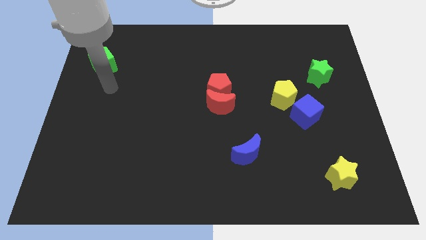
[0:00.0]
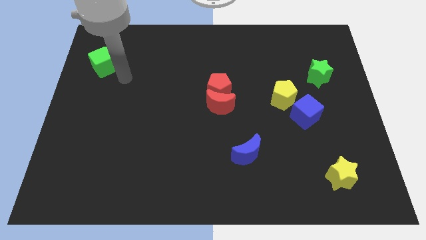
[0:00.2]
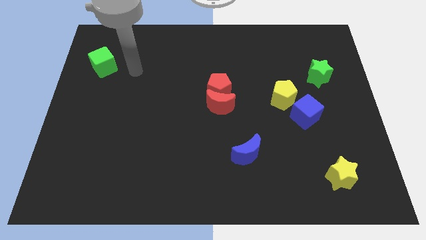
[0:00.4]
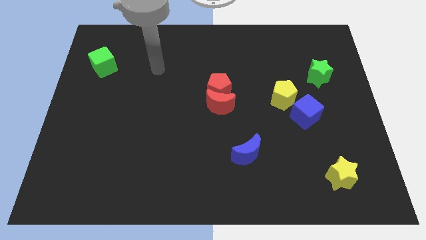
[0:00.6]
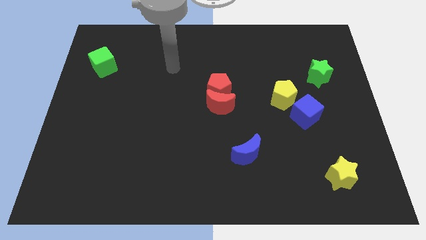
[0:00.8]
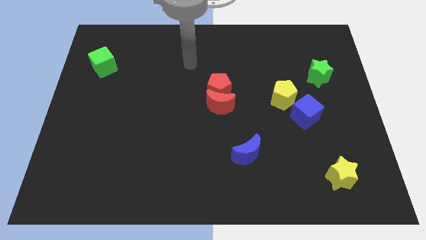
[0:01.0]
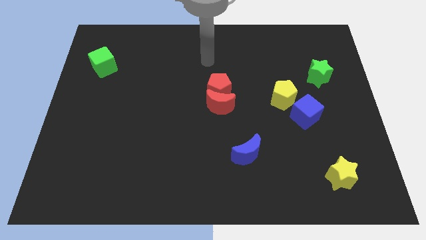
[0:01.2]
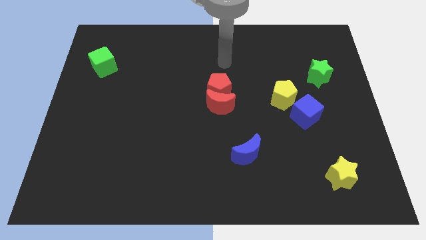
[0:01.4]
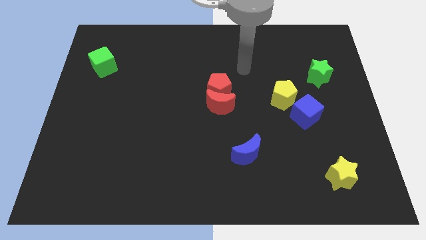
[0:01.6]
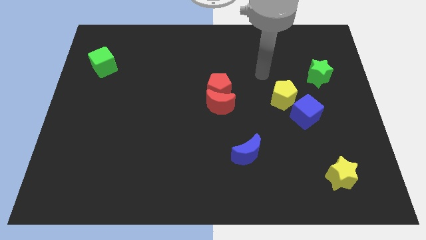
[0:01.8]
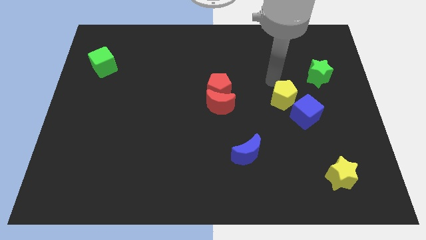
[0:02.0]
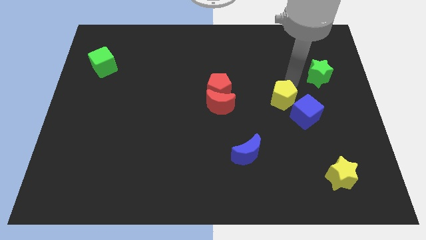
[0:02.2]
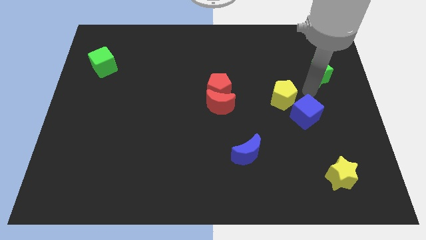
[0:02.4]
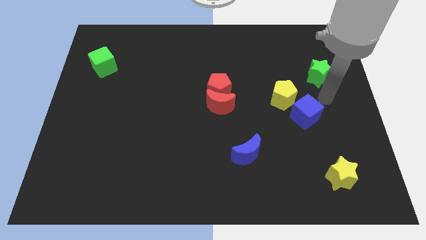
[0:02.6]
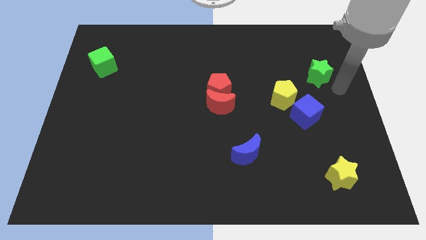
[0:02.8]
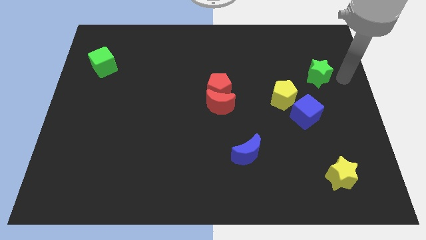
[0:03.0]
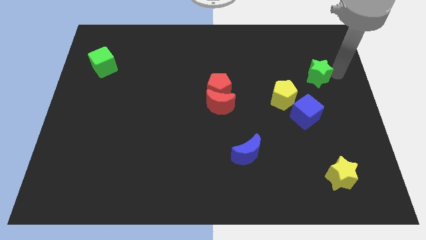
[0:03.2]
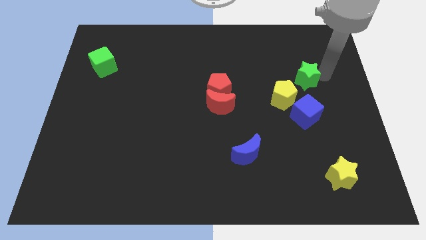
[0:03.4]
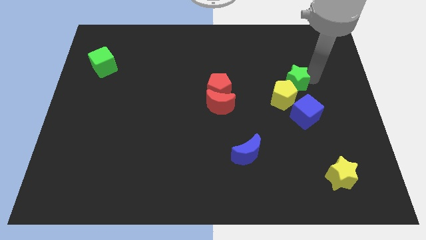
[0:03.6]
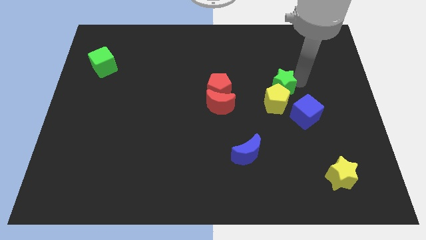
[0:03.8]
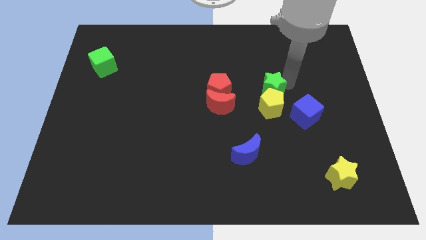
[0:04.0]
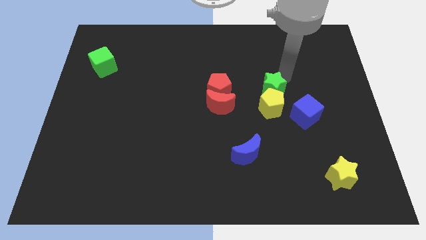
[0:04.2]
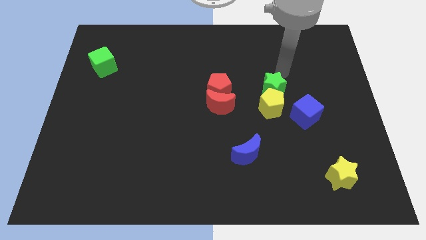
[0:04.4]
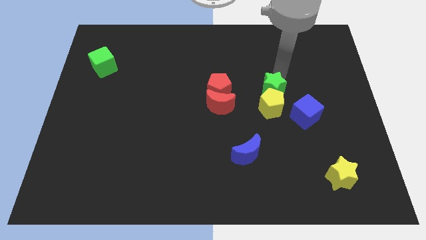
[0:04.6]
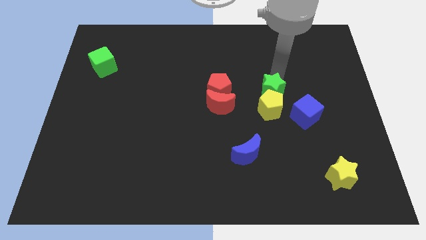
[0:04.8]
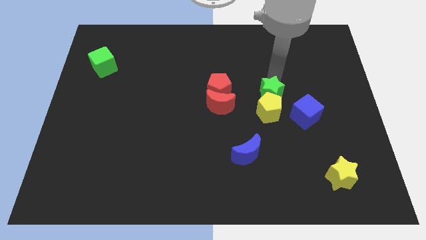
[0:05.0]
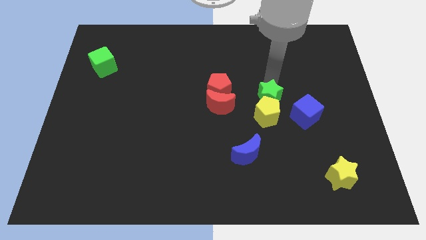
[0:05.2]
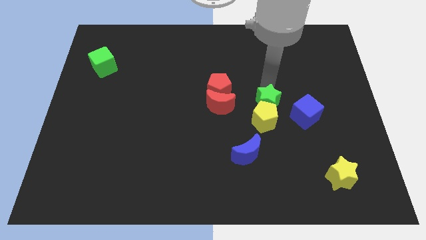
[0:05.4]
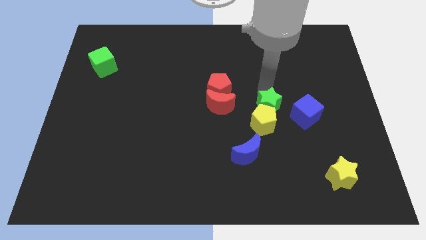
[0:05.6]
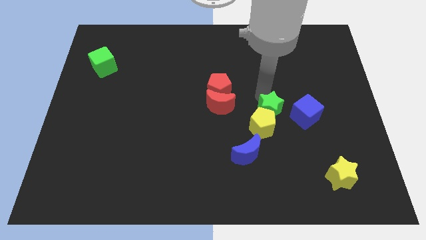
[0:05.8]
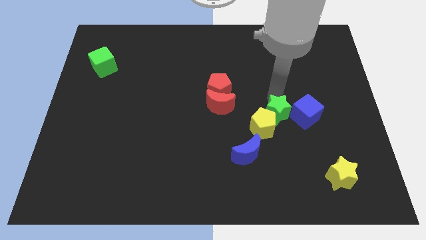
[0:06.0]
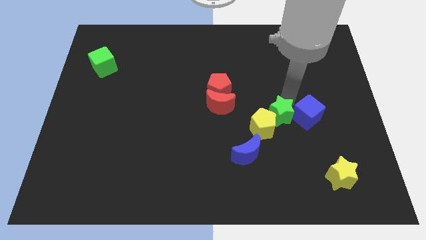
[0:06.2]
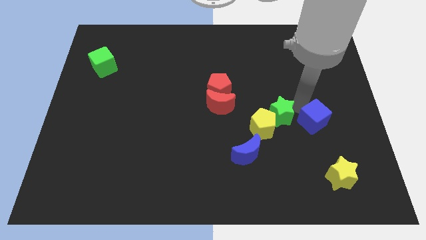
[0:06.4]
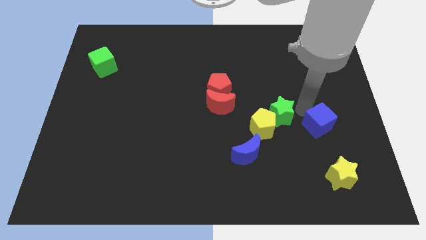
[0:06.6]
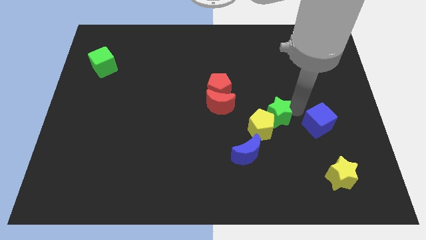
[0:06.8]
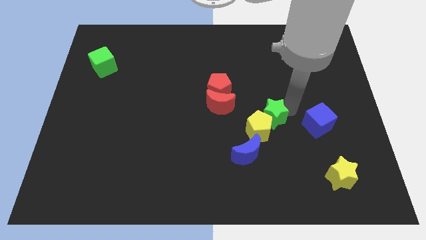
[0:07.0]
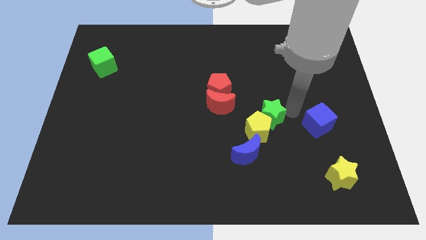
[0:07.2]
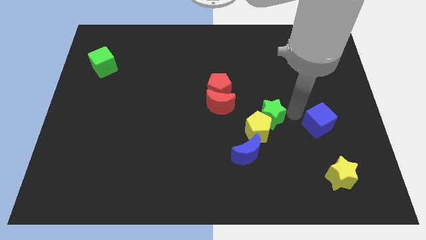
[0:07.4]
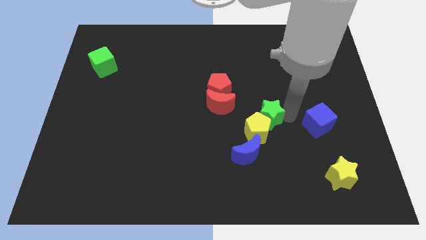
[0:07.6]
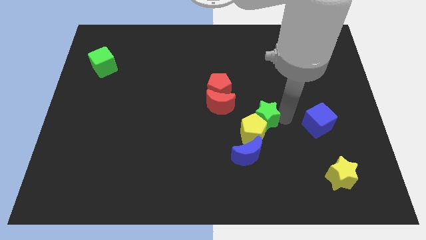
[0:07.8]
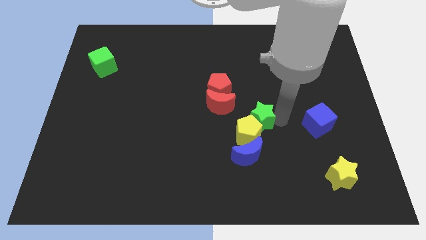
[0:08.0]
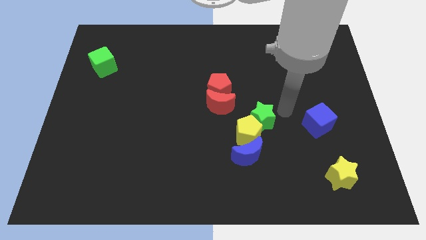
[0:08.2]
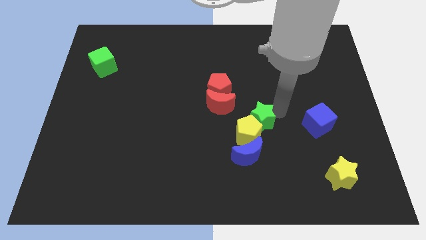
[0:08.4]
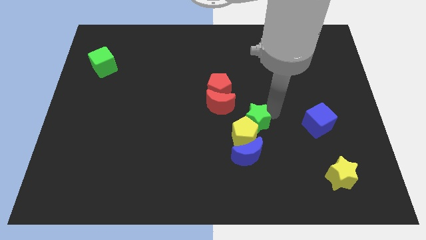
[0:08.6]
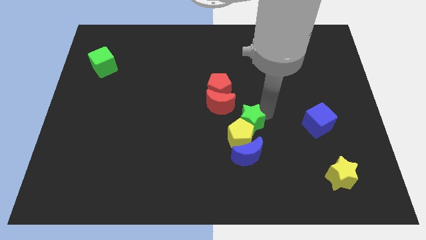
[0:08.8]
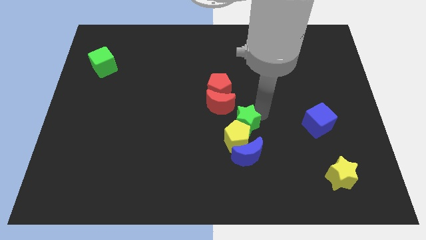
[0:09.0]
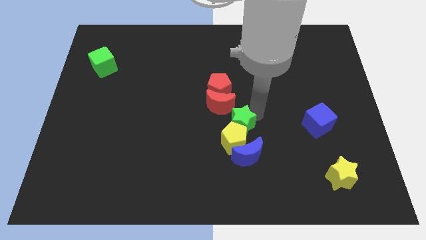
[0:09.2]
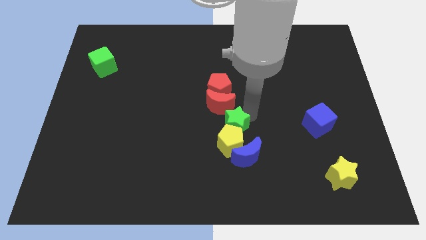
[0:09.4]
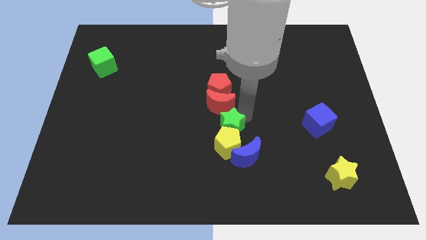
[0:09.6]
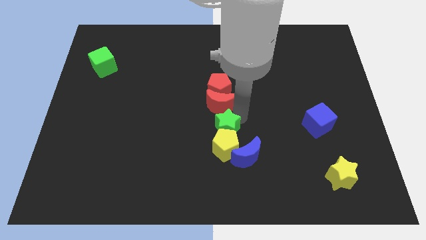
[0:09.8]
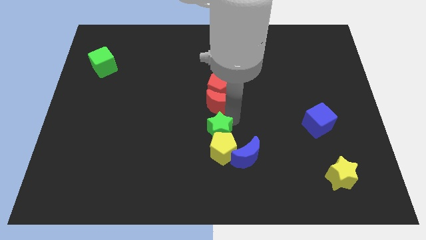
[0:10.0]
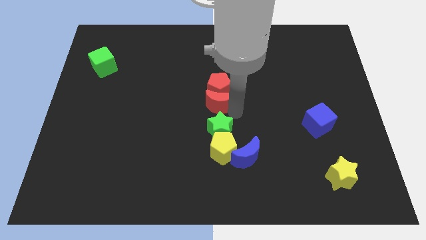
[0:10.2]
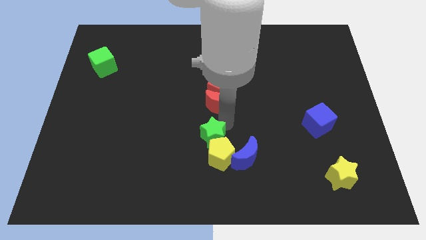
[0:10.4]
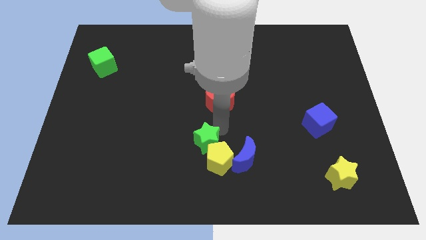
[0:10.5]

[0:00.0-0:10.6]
slide the green star to the left side of the blue moon

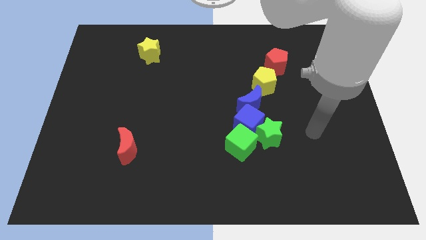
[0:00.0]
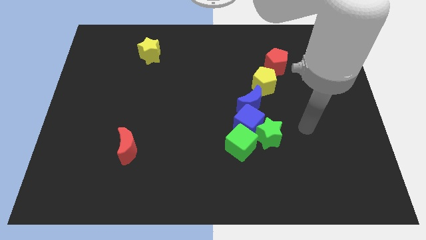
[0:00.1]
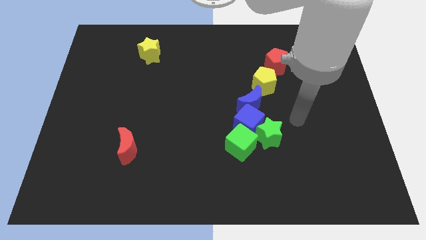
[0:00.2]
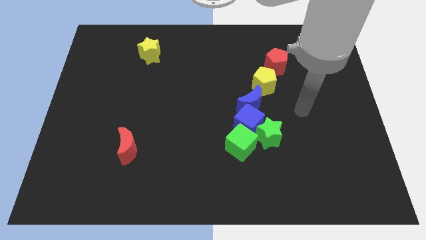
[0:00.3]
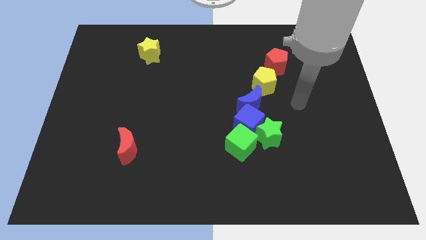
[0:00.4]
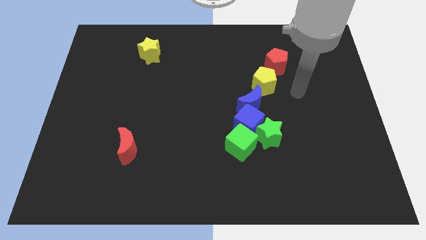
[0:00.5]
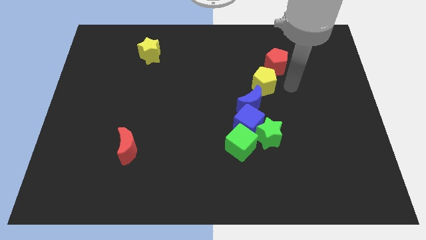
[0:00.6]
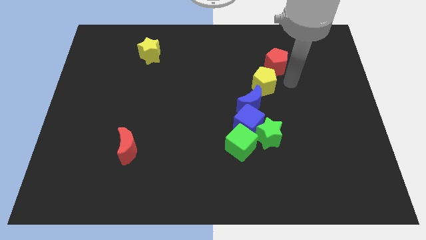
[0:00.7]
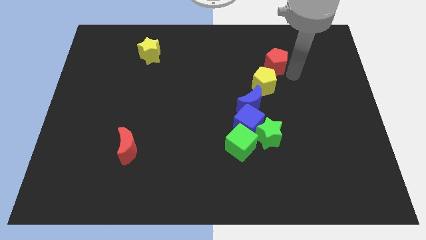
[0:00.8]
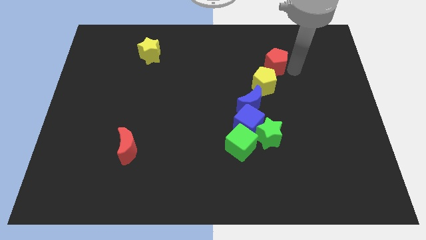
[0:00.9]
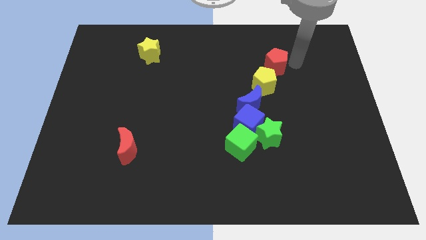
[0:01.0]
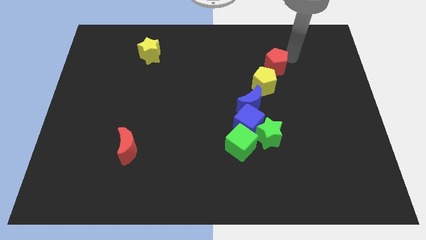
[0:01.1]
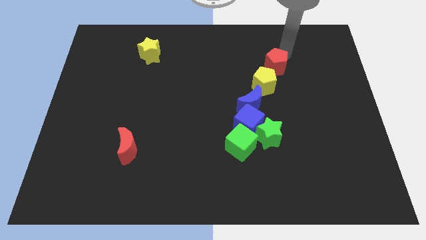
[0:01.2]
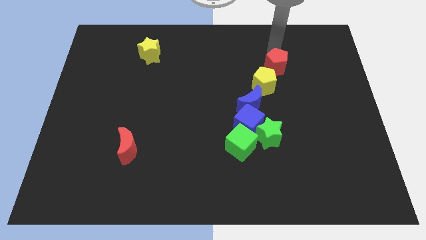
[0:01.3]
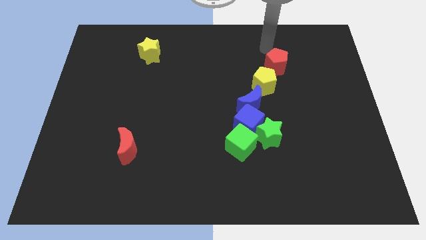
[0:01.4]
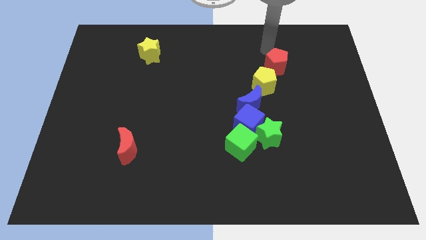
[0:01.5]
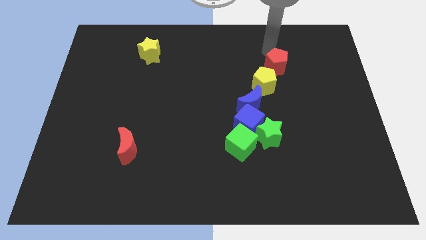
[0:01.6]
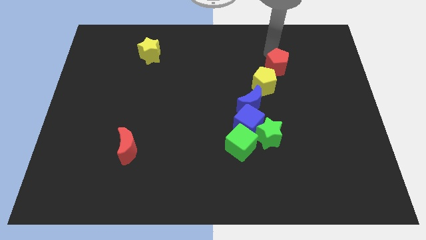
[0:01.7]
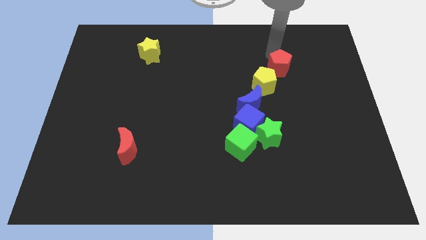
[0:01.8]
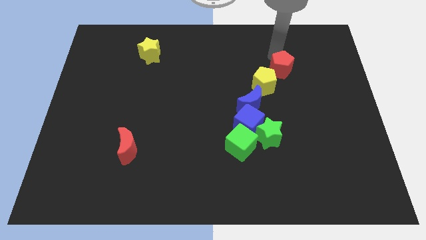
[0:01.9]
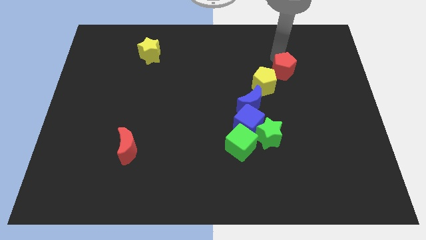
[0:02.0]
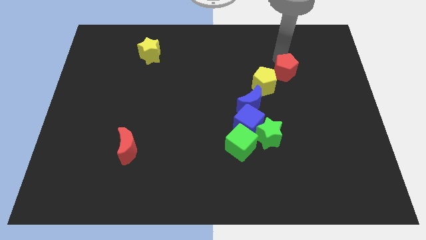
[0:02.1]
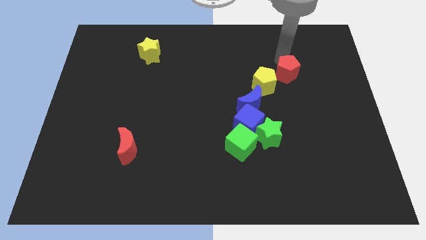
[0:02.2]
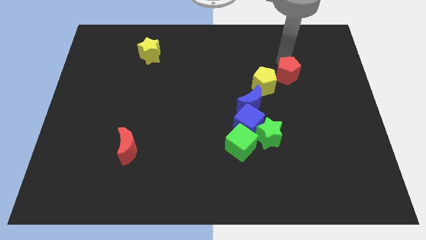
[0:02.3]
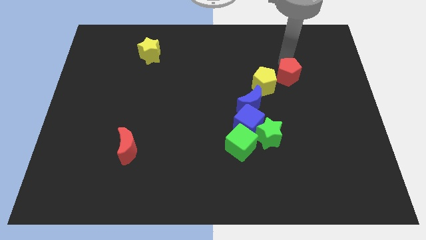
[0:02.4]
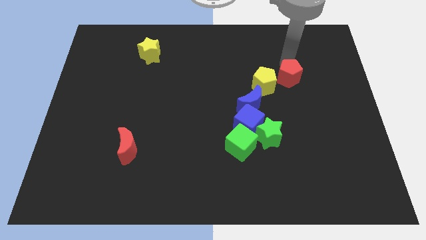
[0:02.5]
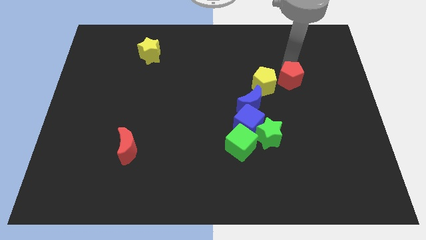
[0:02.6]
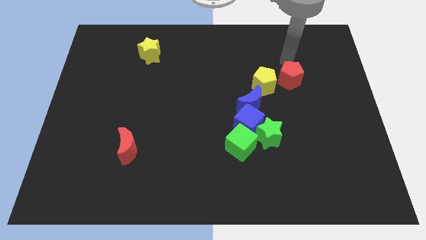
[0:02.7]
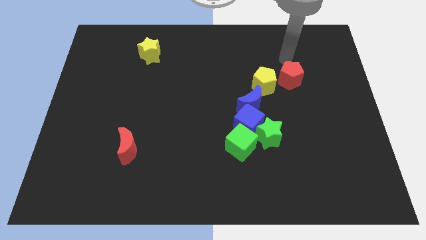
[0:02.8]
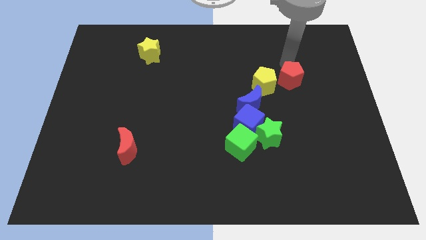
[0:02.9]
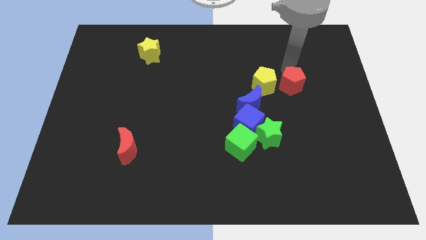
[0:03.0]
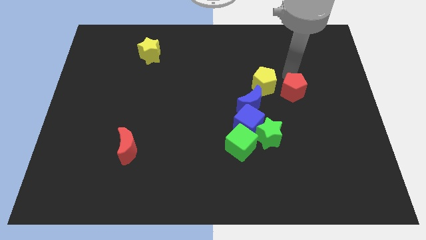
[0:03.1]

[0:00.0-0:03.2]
push the red pentagon just right of the blue moon
